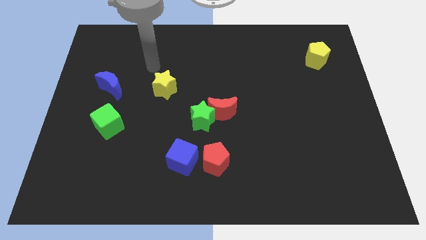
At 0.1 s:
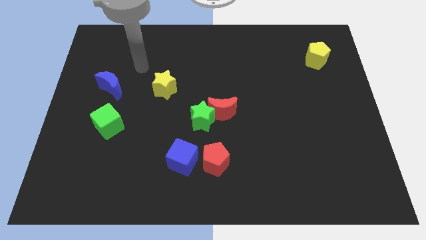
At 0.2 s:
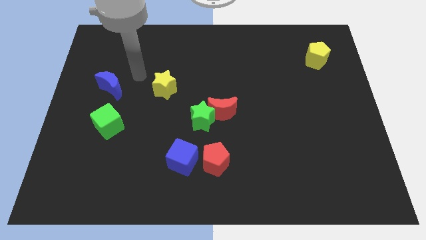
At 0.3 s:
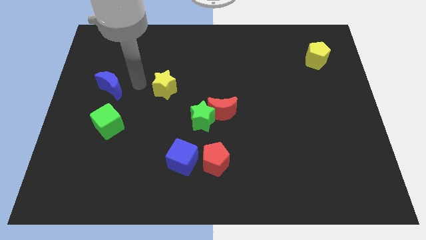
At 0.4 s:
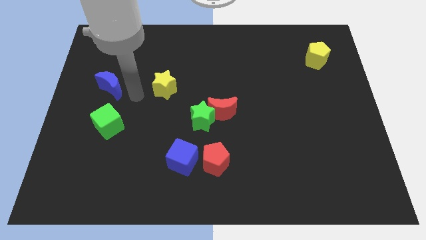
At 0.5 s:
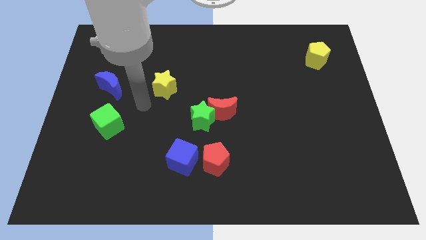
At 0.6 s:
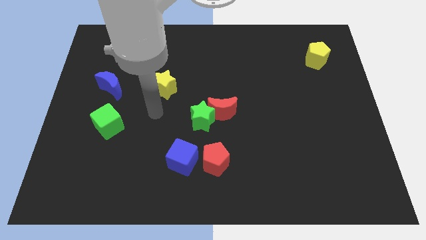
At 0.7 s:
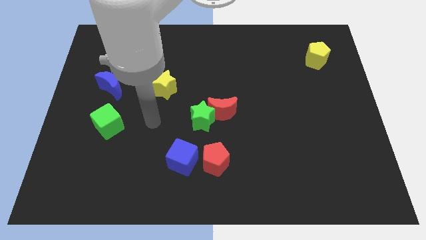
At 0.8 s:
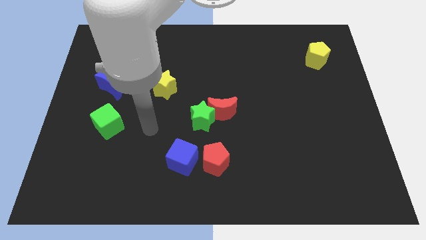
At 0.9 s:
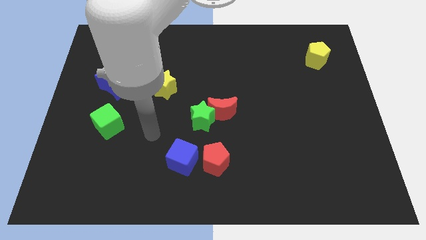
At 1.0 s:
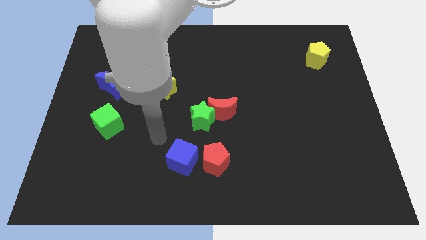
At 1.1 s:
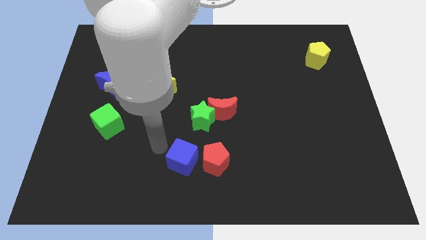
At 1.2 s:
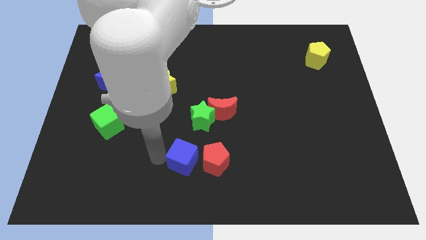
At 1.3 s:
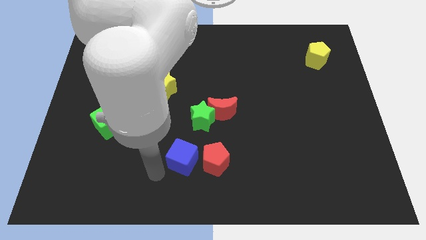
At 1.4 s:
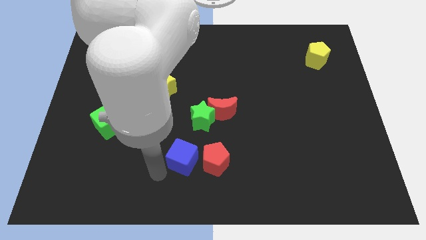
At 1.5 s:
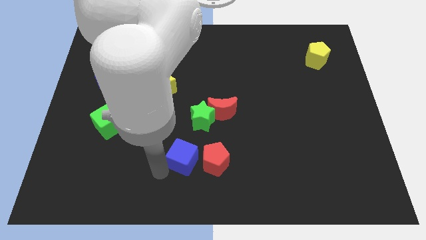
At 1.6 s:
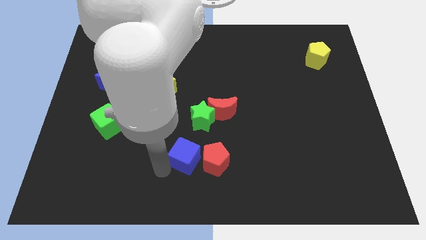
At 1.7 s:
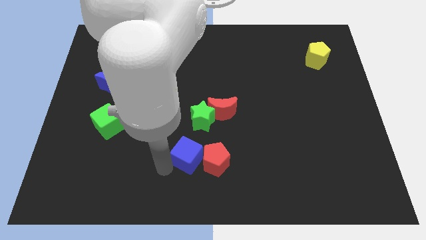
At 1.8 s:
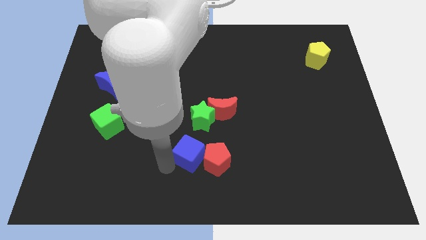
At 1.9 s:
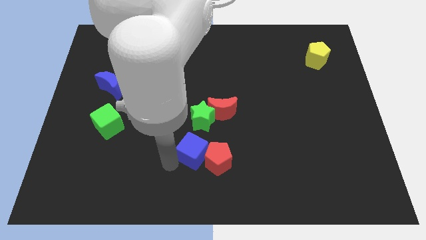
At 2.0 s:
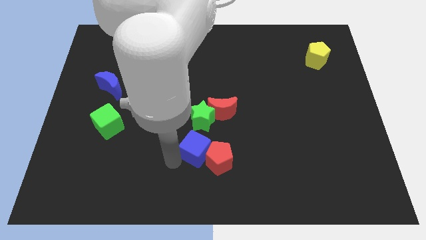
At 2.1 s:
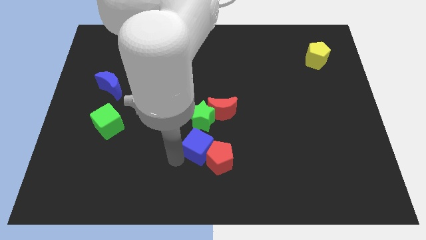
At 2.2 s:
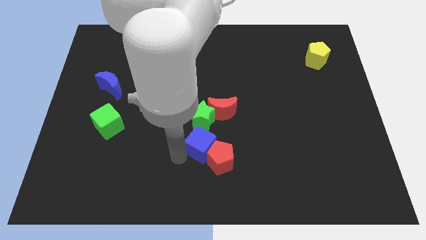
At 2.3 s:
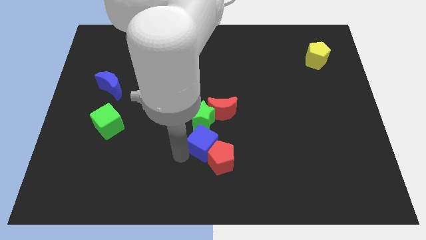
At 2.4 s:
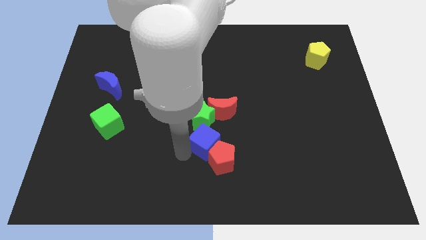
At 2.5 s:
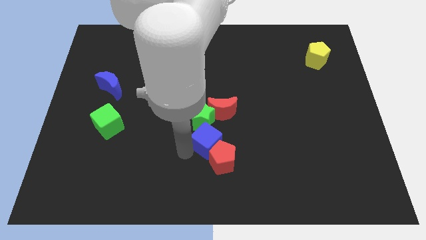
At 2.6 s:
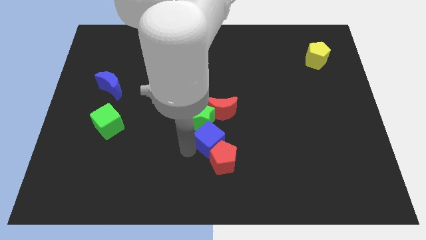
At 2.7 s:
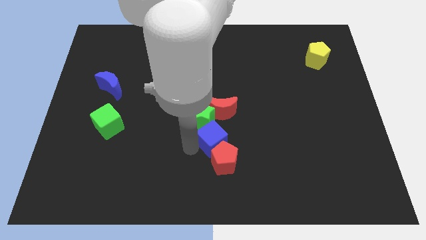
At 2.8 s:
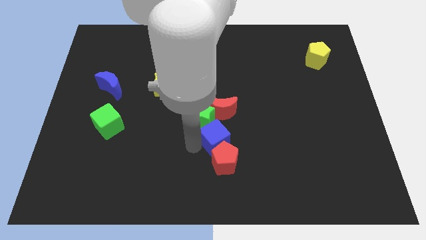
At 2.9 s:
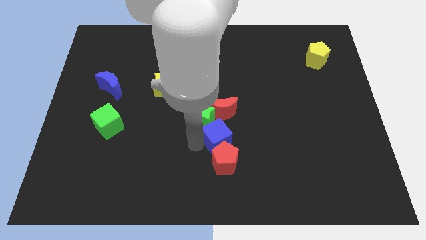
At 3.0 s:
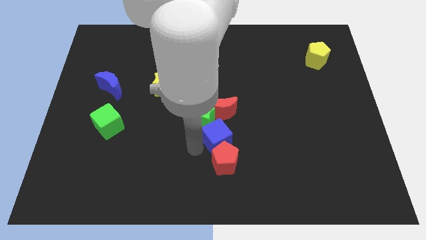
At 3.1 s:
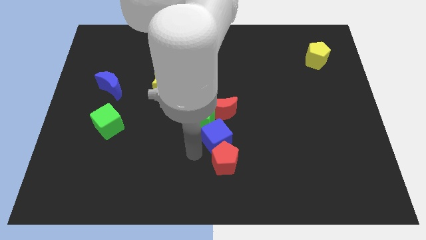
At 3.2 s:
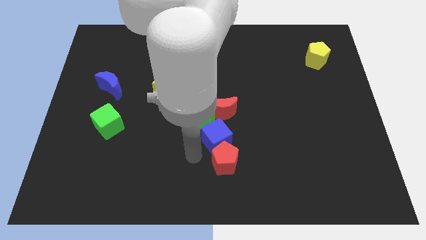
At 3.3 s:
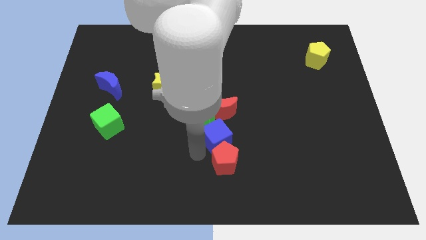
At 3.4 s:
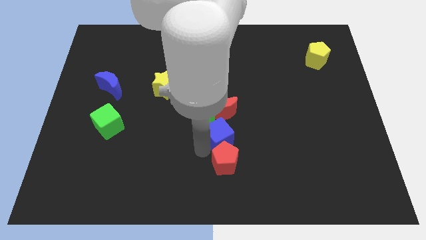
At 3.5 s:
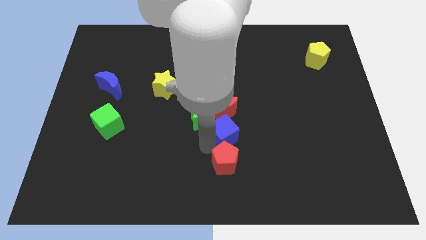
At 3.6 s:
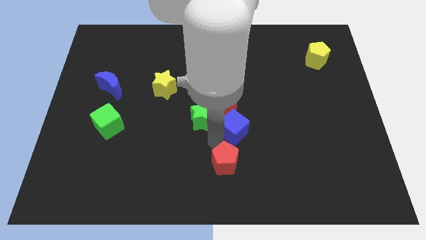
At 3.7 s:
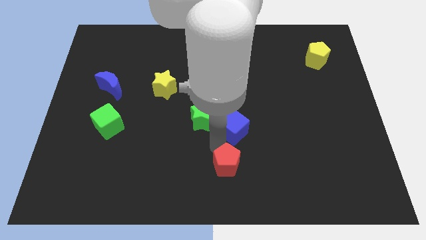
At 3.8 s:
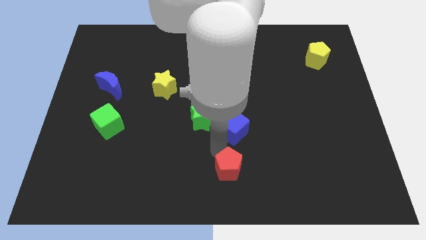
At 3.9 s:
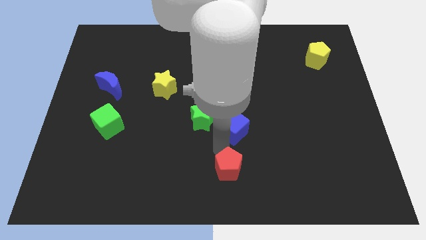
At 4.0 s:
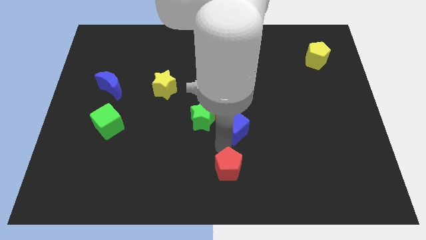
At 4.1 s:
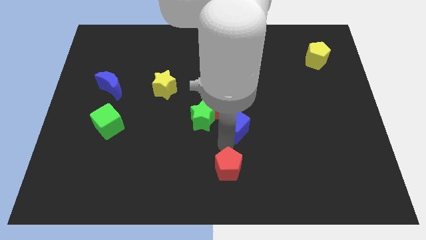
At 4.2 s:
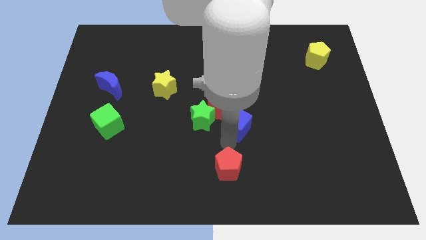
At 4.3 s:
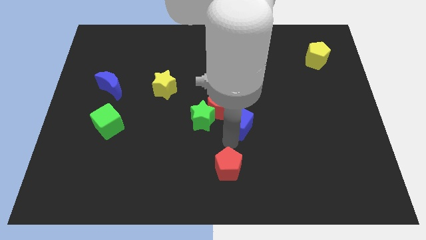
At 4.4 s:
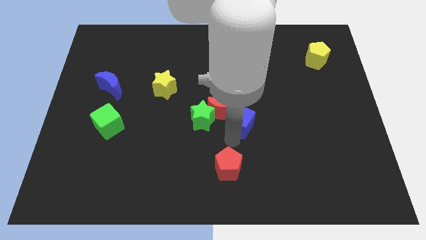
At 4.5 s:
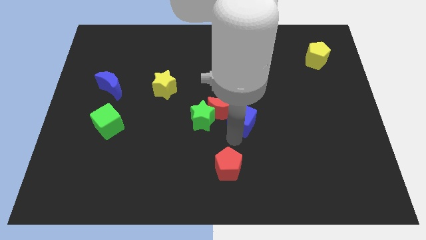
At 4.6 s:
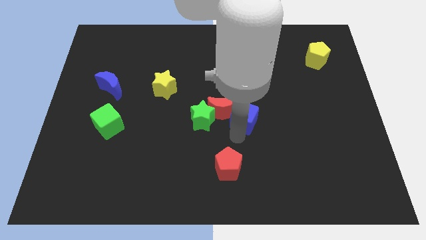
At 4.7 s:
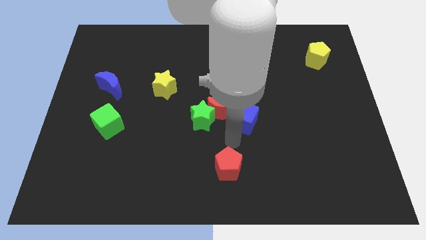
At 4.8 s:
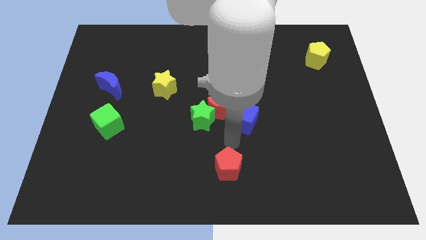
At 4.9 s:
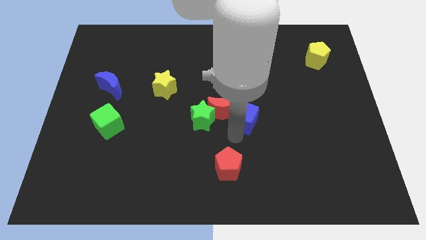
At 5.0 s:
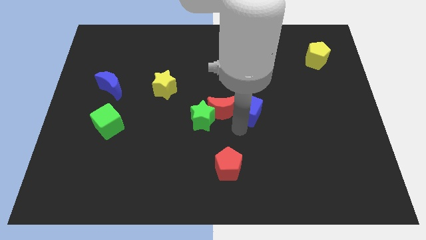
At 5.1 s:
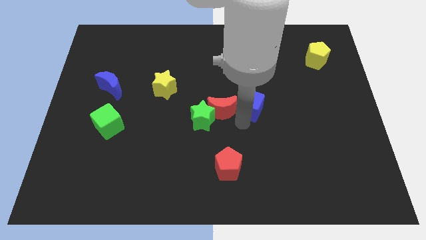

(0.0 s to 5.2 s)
move the blue cube up and right diagonally

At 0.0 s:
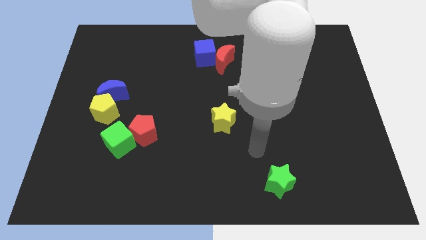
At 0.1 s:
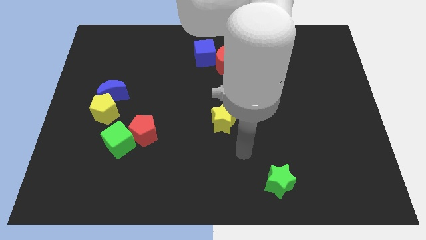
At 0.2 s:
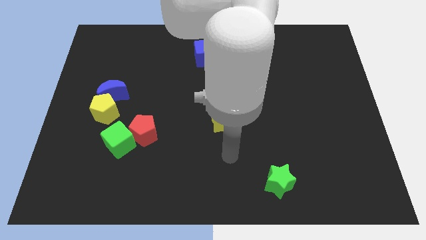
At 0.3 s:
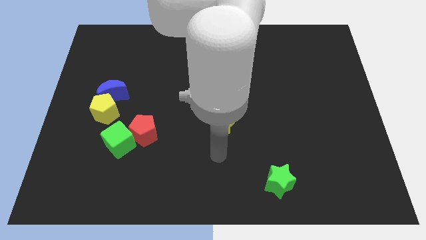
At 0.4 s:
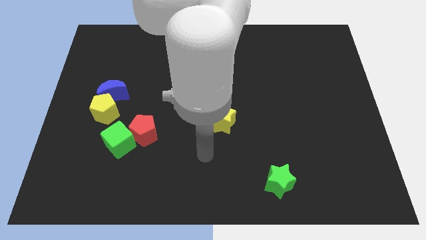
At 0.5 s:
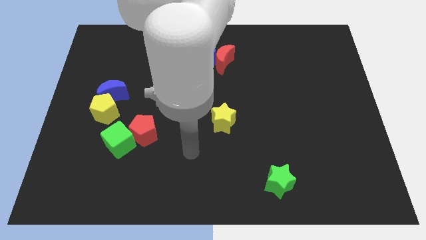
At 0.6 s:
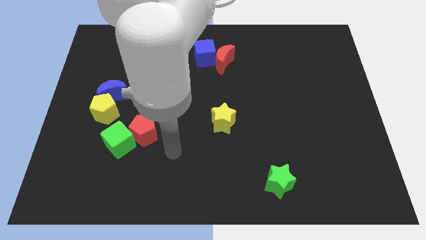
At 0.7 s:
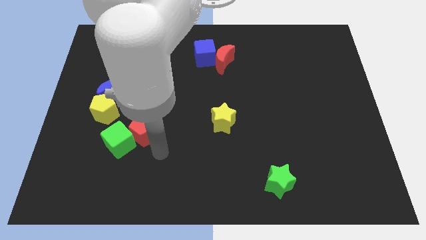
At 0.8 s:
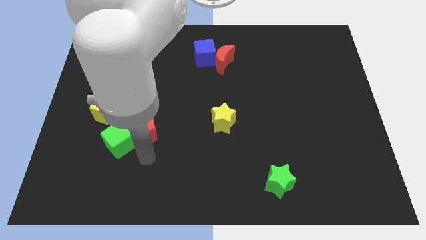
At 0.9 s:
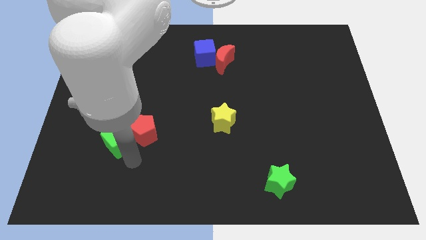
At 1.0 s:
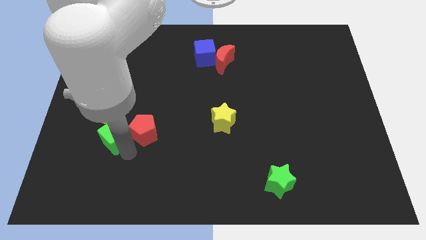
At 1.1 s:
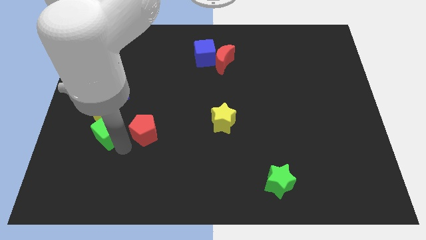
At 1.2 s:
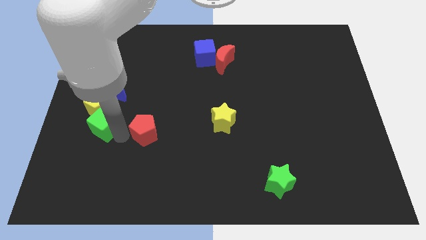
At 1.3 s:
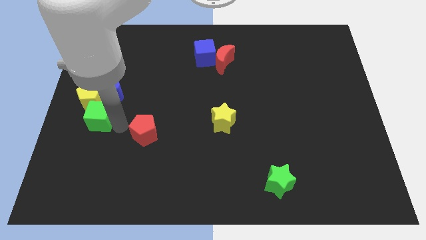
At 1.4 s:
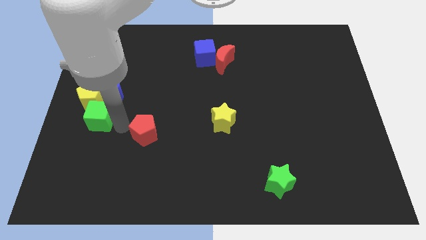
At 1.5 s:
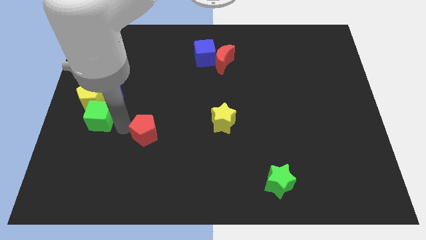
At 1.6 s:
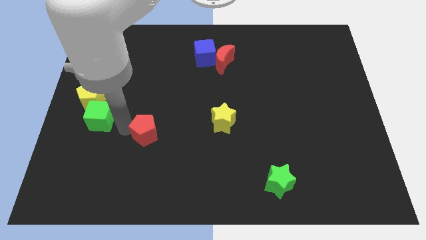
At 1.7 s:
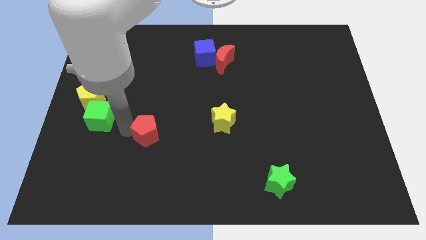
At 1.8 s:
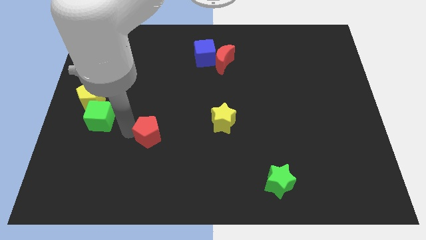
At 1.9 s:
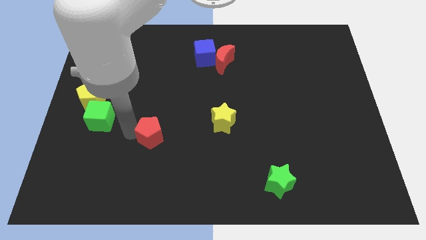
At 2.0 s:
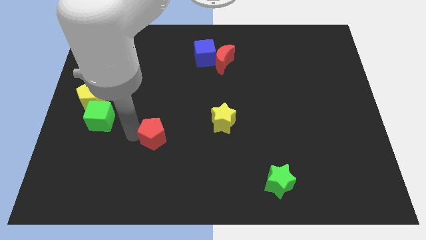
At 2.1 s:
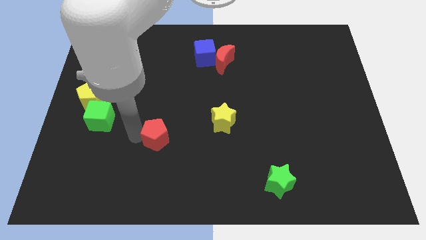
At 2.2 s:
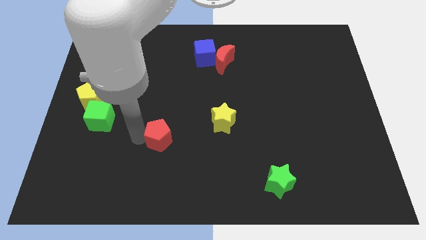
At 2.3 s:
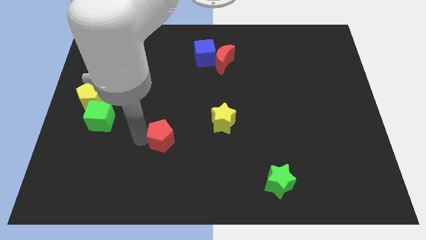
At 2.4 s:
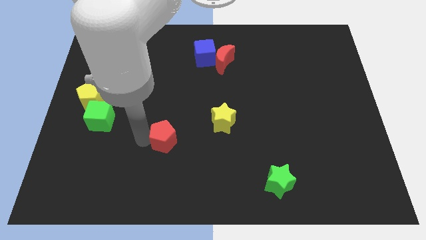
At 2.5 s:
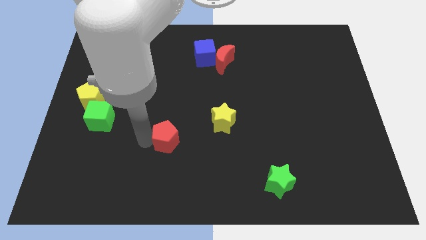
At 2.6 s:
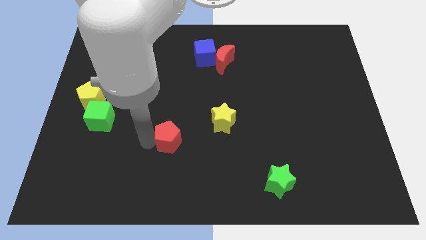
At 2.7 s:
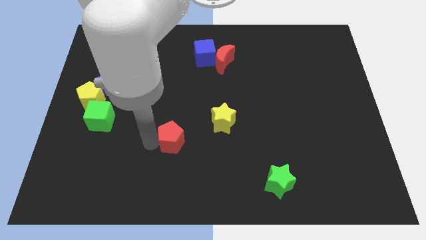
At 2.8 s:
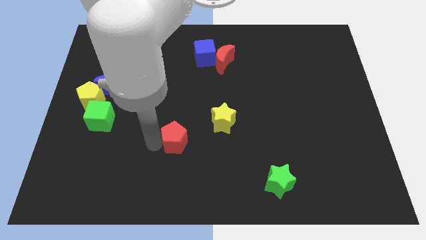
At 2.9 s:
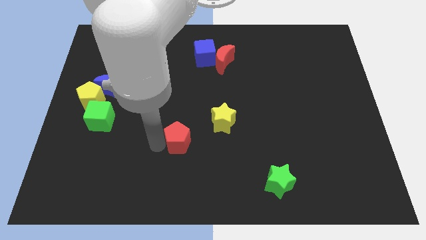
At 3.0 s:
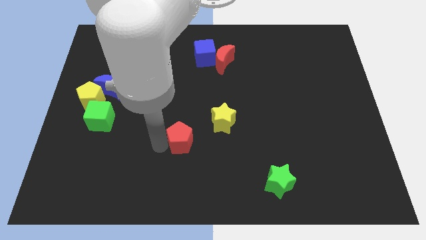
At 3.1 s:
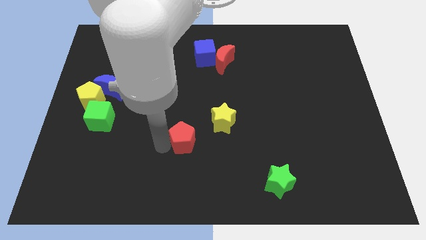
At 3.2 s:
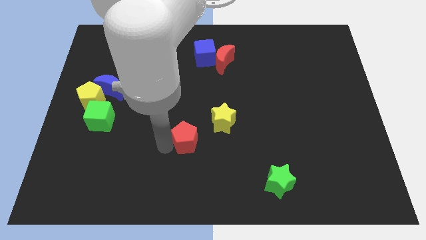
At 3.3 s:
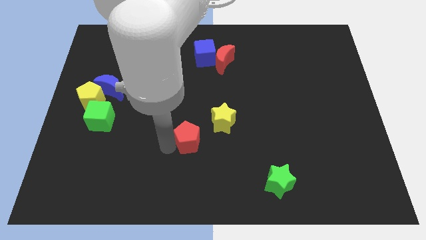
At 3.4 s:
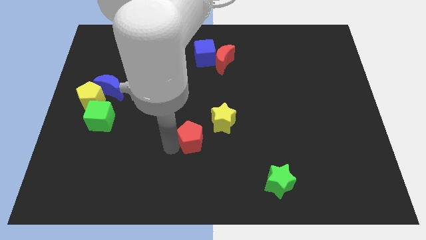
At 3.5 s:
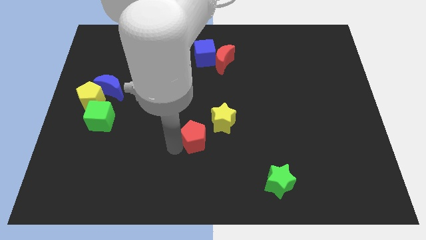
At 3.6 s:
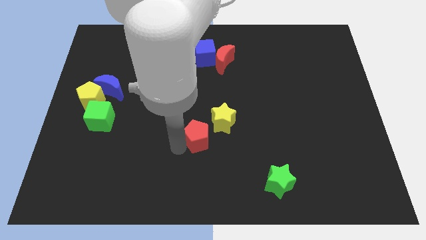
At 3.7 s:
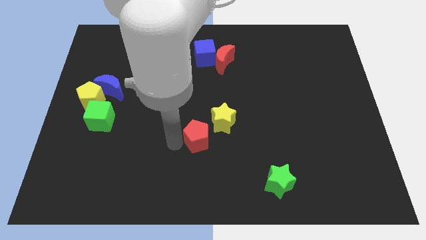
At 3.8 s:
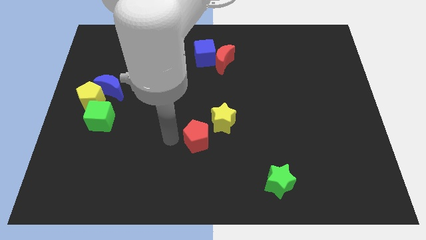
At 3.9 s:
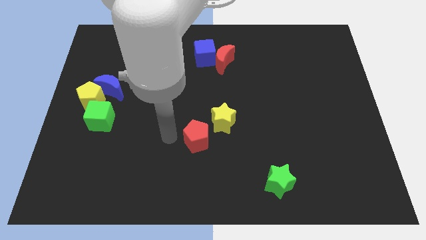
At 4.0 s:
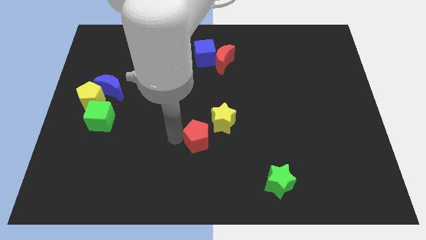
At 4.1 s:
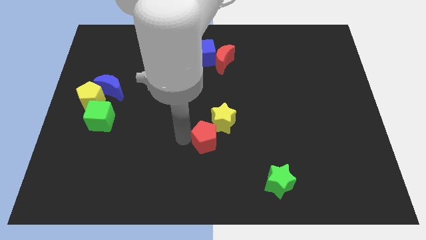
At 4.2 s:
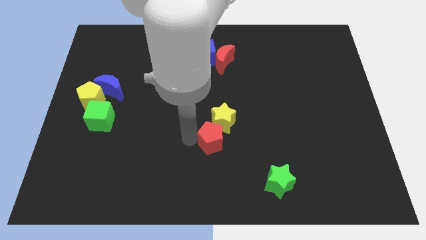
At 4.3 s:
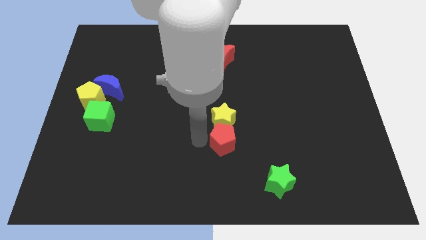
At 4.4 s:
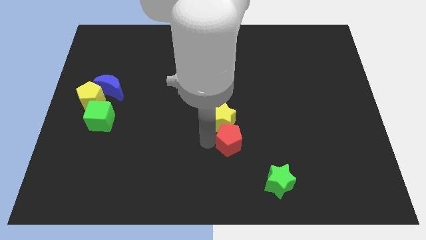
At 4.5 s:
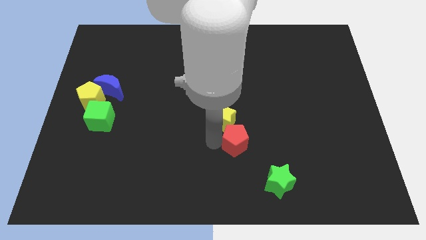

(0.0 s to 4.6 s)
slide the red pentagon to the right
